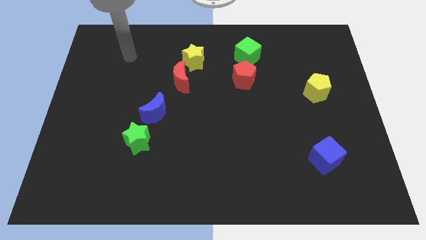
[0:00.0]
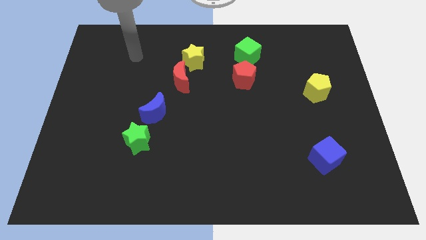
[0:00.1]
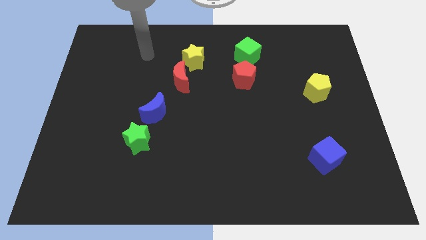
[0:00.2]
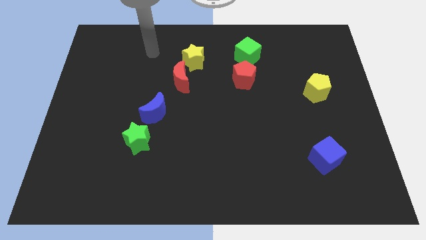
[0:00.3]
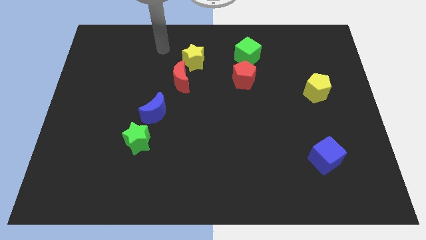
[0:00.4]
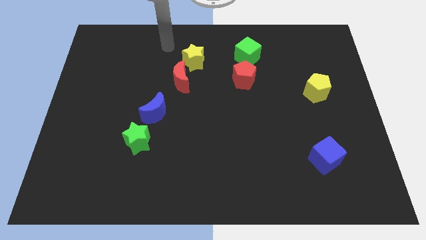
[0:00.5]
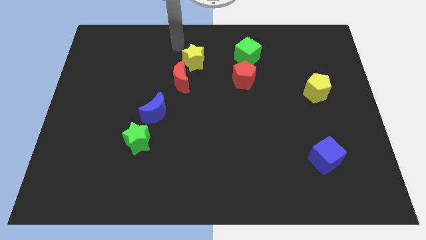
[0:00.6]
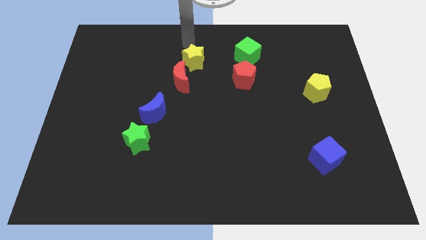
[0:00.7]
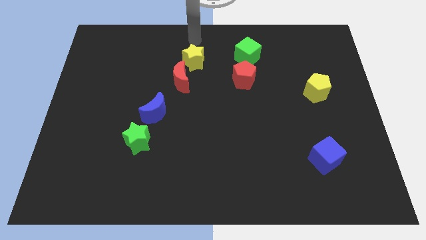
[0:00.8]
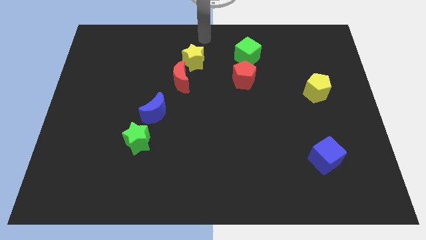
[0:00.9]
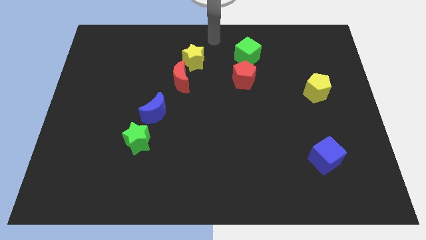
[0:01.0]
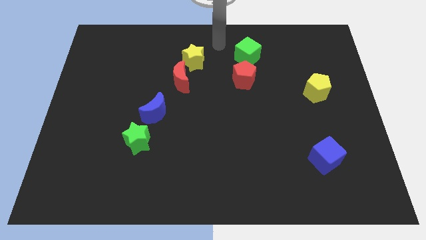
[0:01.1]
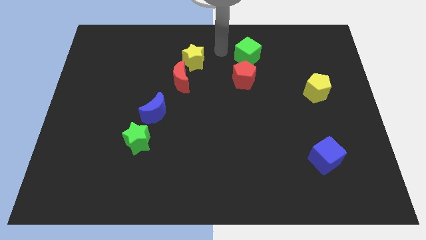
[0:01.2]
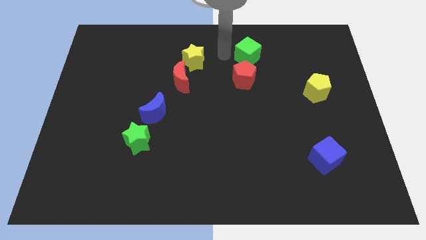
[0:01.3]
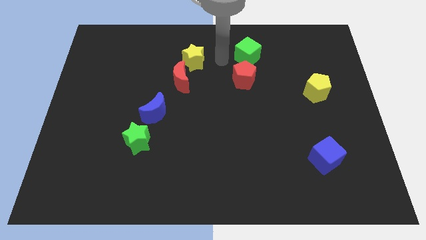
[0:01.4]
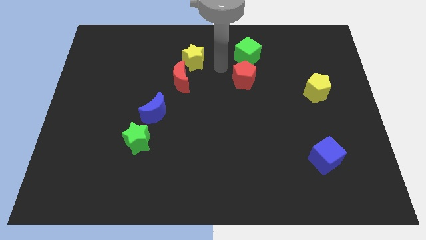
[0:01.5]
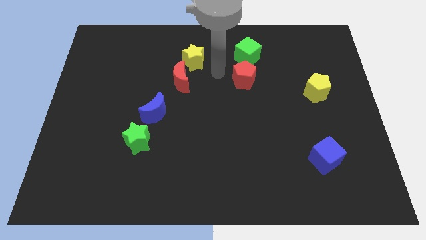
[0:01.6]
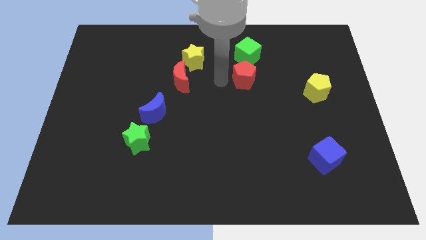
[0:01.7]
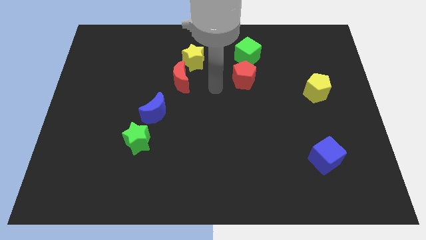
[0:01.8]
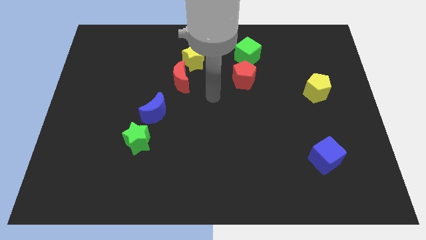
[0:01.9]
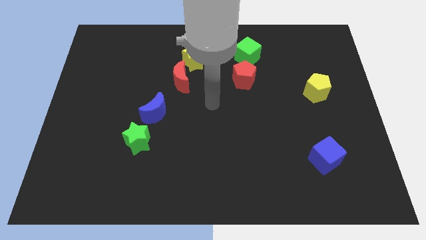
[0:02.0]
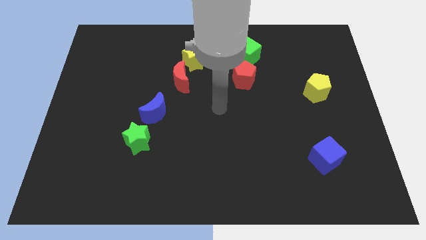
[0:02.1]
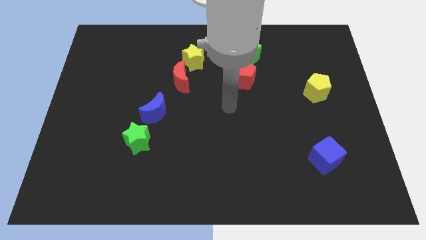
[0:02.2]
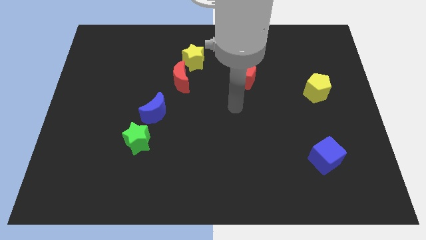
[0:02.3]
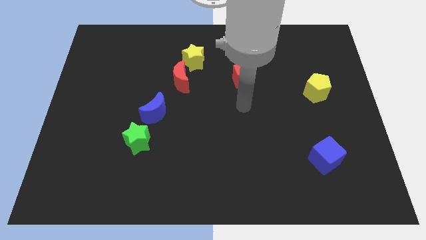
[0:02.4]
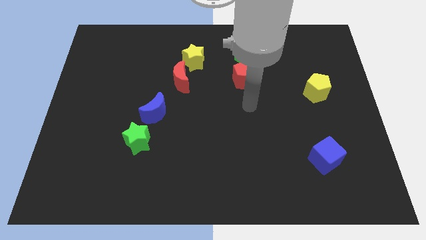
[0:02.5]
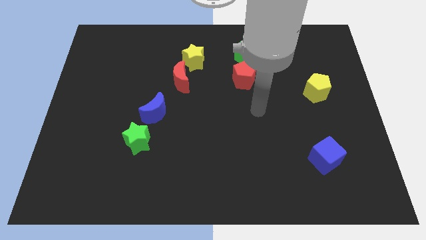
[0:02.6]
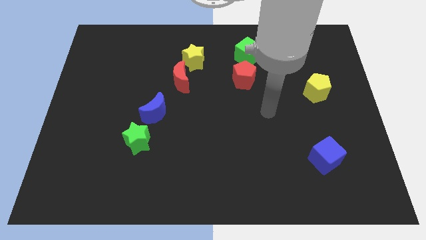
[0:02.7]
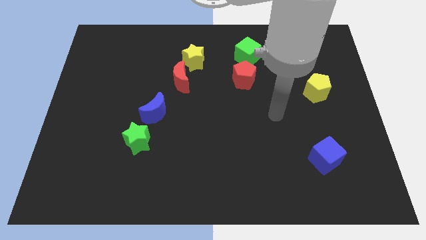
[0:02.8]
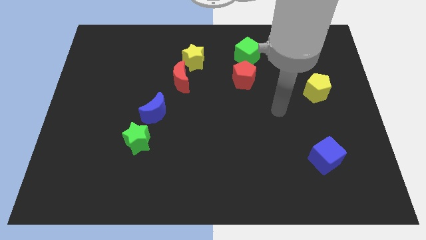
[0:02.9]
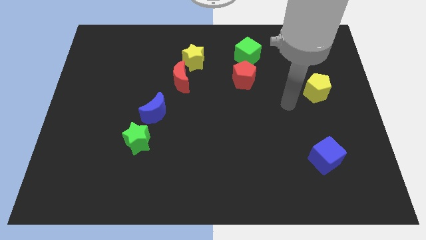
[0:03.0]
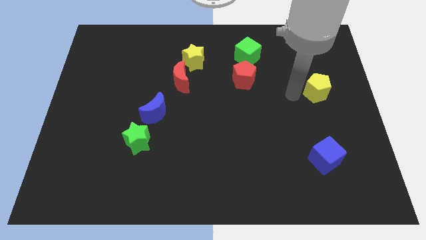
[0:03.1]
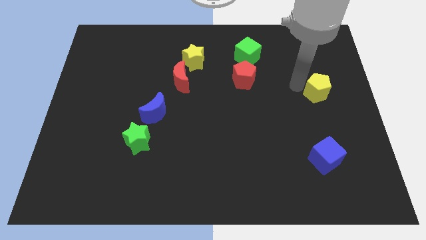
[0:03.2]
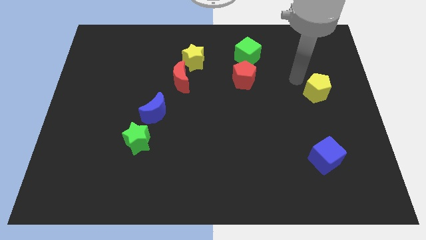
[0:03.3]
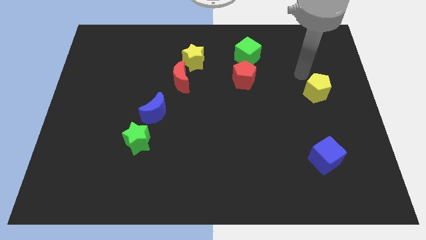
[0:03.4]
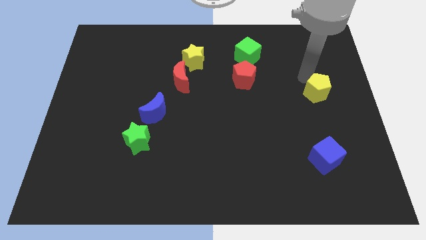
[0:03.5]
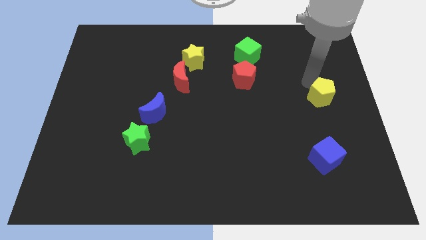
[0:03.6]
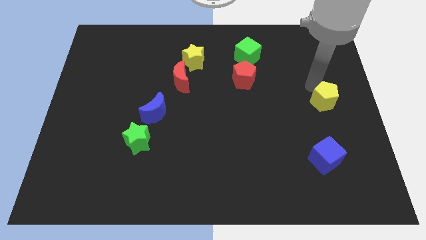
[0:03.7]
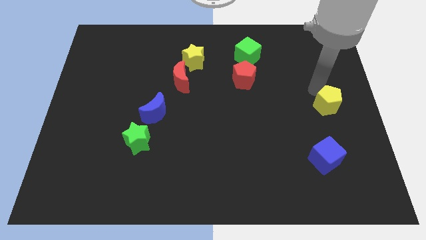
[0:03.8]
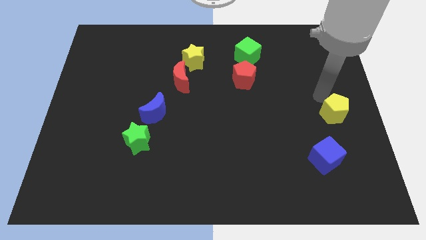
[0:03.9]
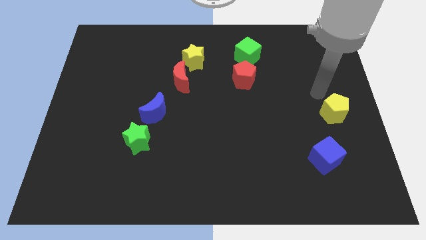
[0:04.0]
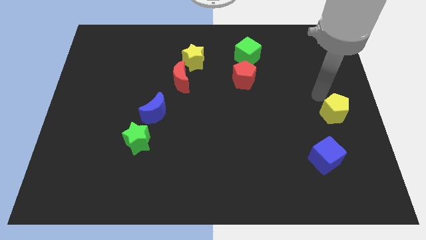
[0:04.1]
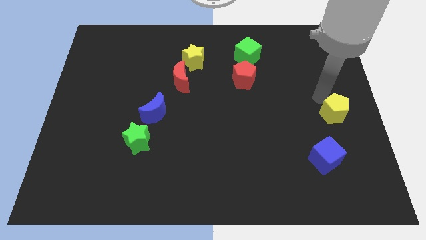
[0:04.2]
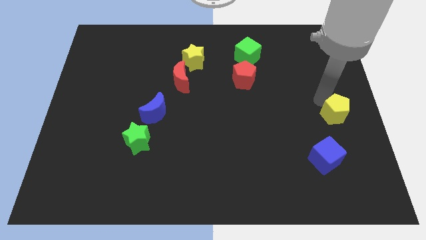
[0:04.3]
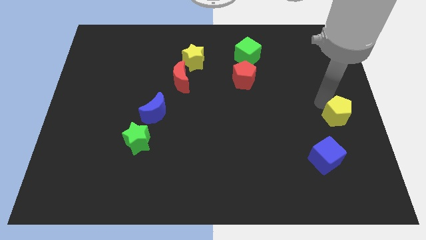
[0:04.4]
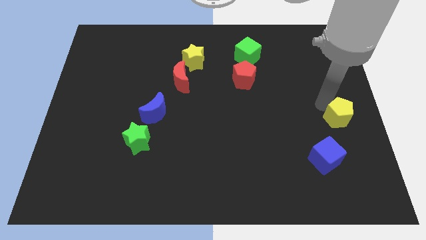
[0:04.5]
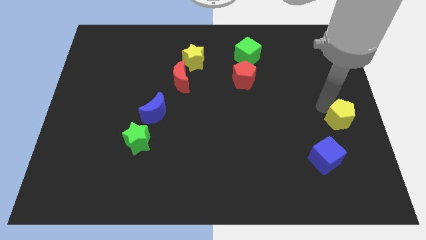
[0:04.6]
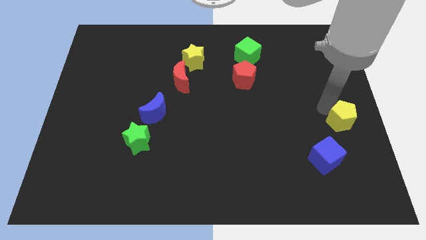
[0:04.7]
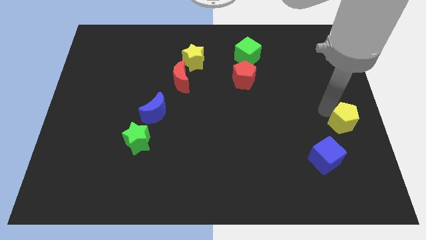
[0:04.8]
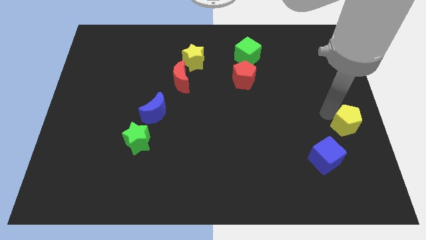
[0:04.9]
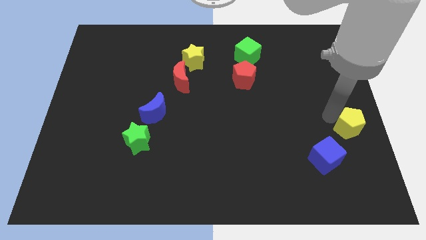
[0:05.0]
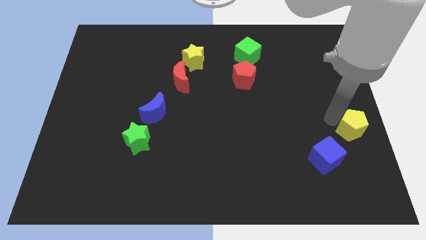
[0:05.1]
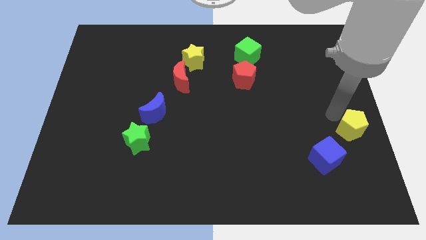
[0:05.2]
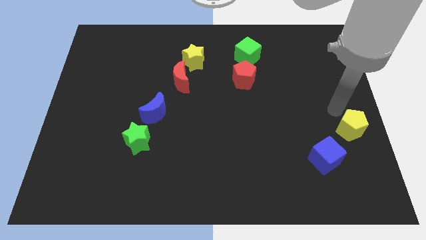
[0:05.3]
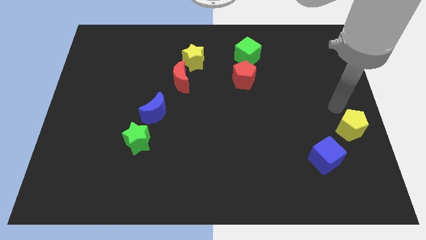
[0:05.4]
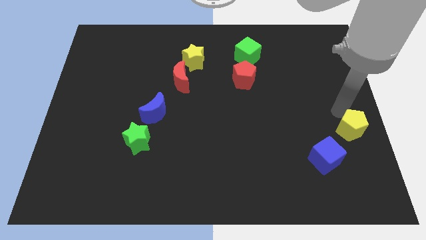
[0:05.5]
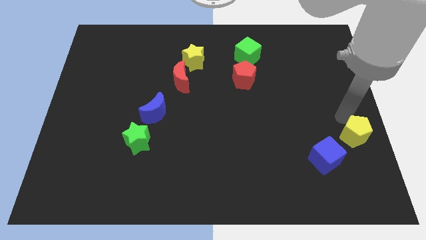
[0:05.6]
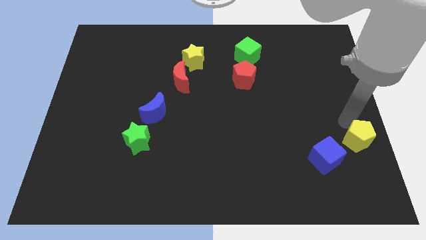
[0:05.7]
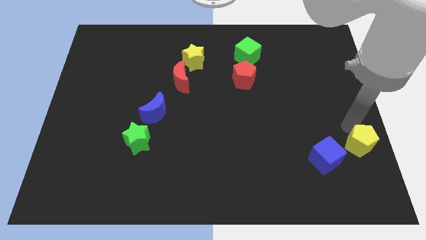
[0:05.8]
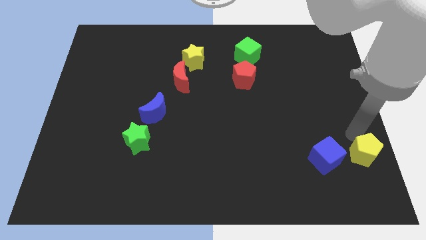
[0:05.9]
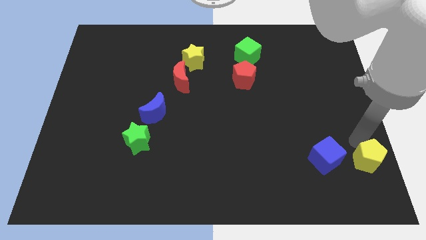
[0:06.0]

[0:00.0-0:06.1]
slide the yellow pentagon to the lower right corner

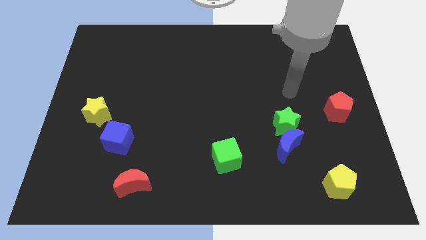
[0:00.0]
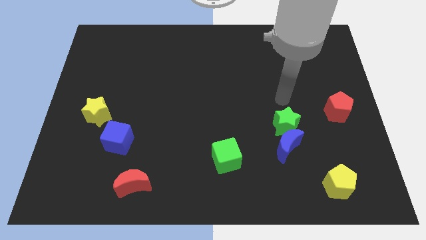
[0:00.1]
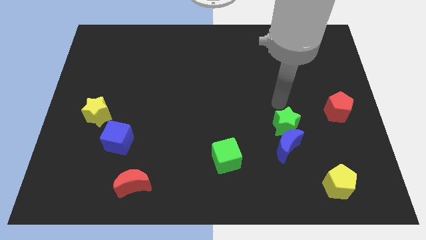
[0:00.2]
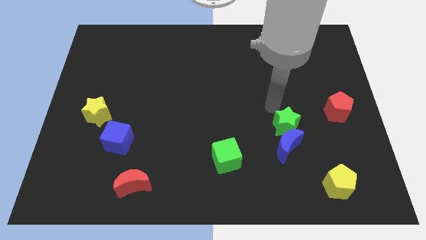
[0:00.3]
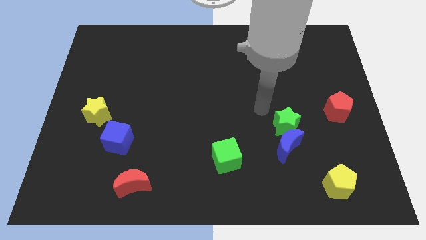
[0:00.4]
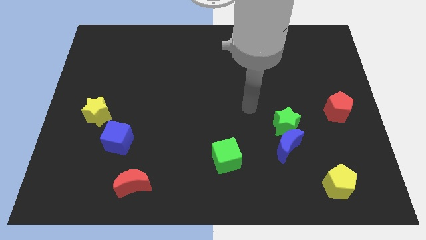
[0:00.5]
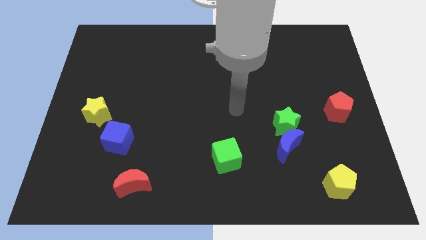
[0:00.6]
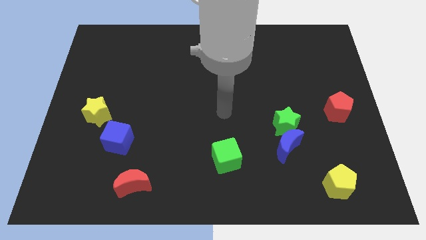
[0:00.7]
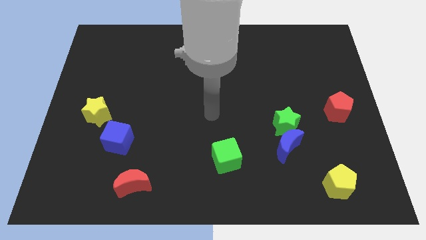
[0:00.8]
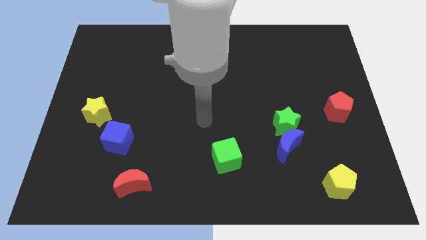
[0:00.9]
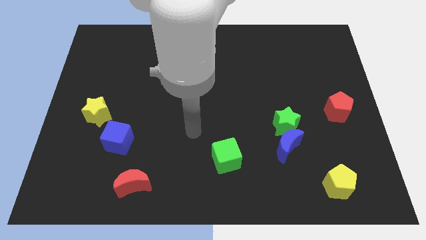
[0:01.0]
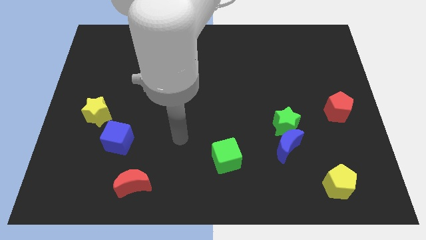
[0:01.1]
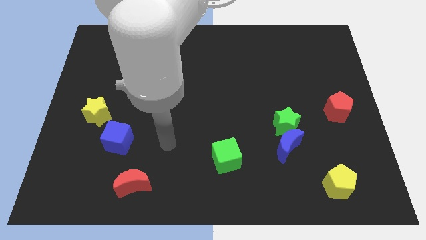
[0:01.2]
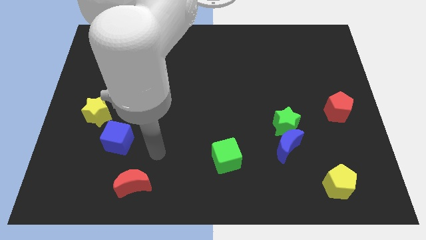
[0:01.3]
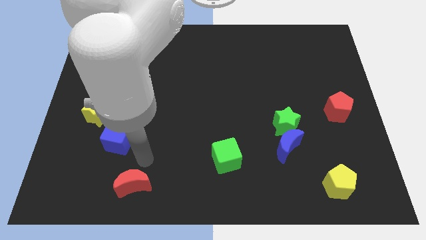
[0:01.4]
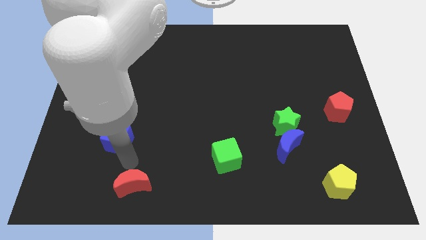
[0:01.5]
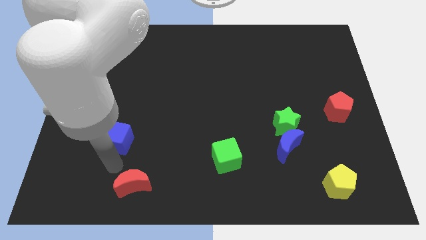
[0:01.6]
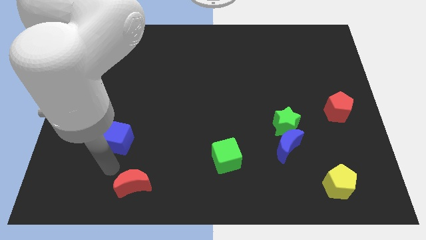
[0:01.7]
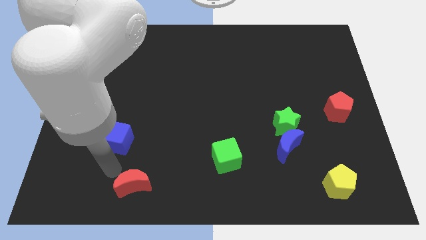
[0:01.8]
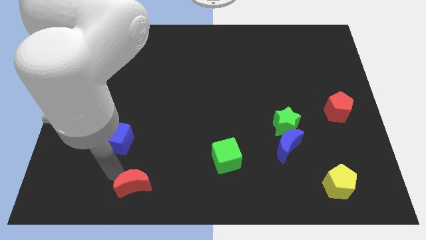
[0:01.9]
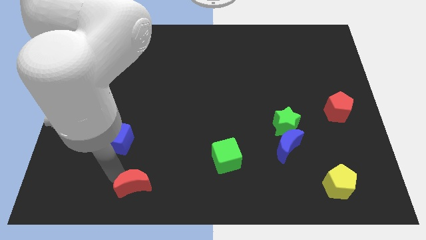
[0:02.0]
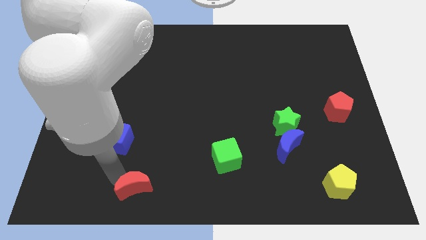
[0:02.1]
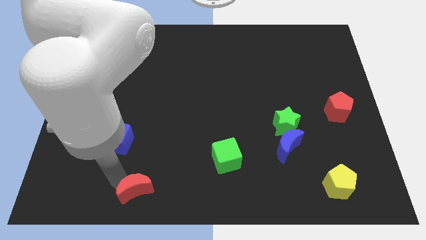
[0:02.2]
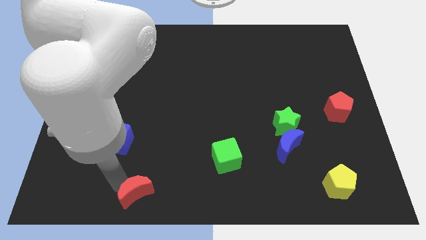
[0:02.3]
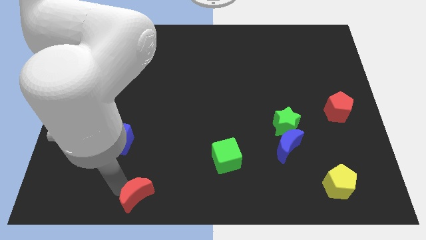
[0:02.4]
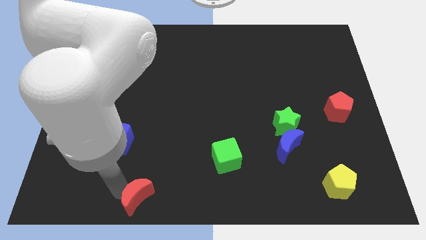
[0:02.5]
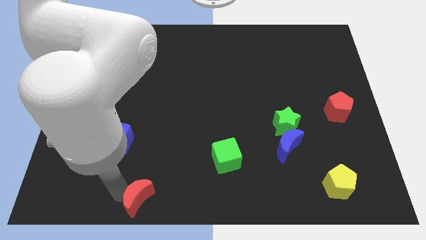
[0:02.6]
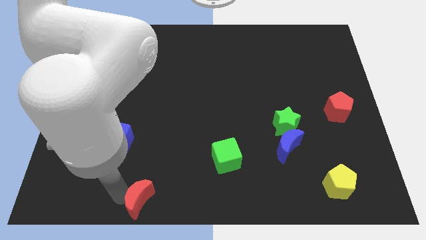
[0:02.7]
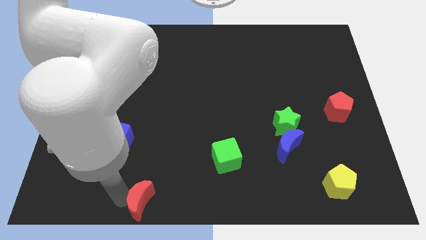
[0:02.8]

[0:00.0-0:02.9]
put the red moon to the bottom side
